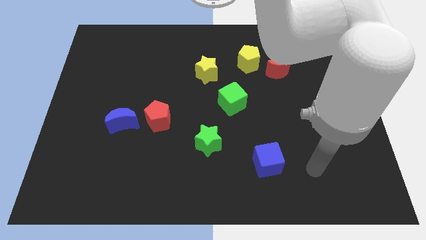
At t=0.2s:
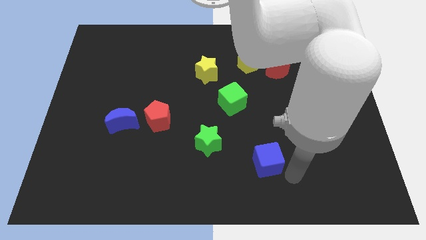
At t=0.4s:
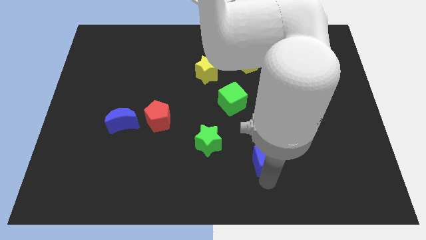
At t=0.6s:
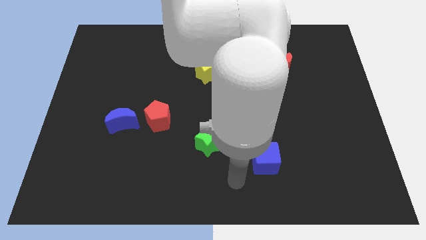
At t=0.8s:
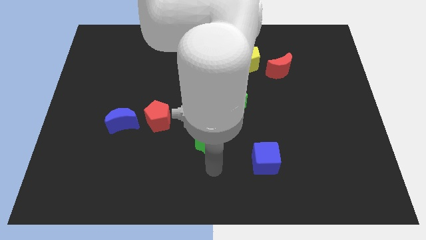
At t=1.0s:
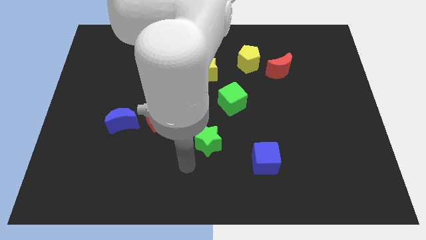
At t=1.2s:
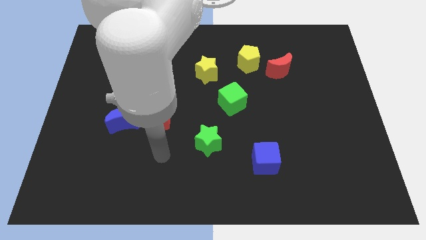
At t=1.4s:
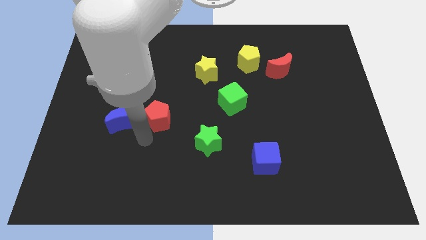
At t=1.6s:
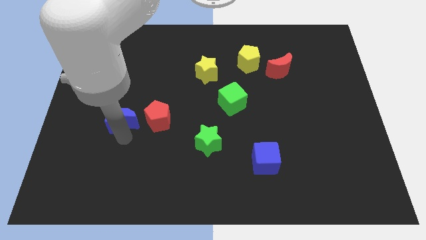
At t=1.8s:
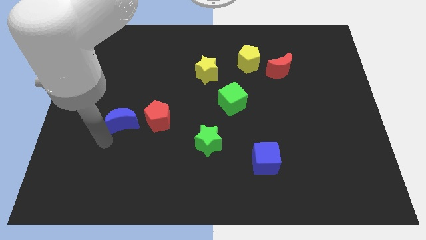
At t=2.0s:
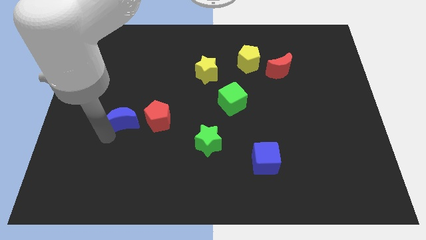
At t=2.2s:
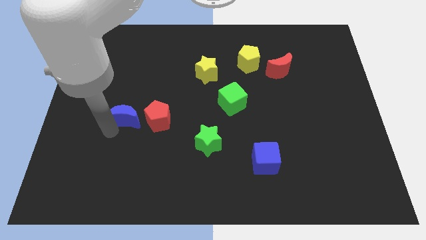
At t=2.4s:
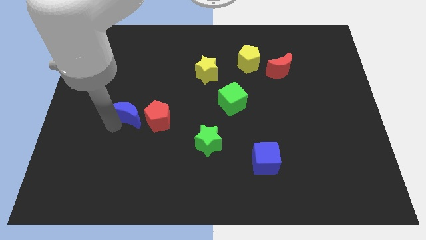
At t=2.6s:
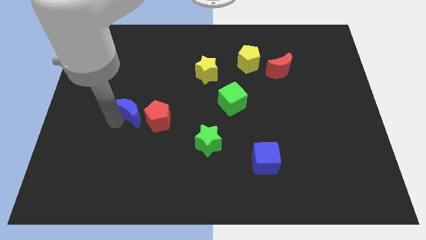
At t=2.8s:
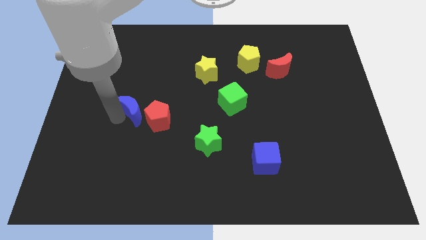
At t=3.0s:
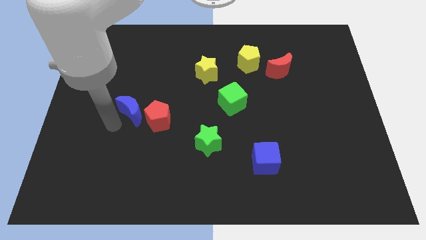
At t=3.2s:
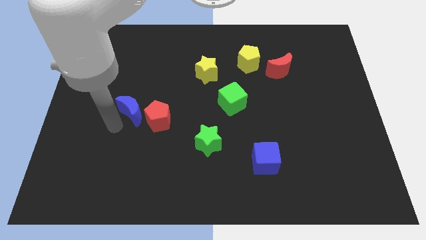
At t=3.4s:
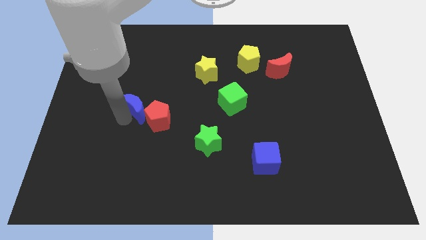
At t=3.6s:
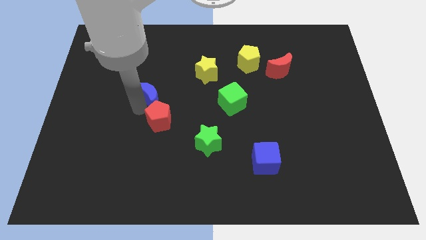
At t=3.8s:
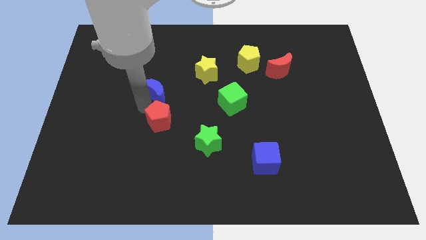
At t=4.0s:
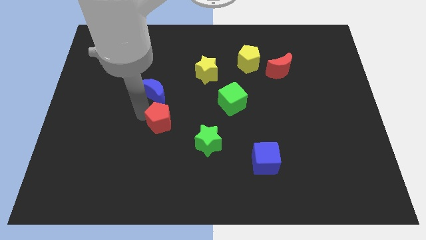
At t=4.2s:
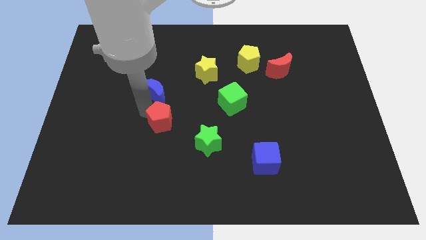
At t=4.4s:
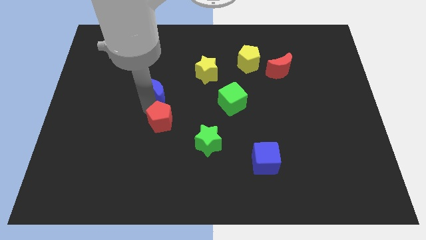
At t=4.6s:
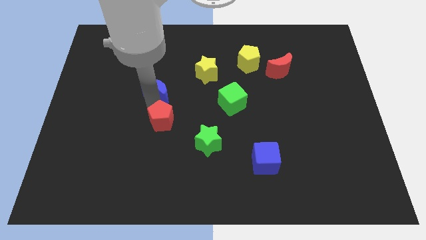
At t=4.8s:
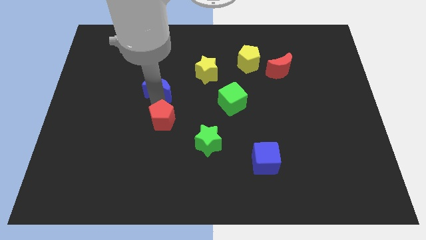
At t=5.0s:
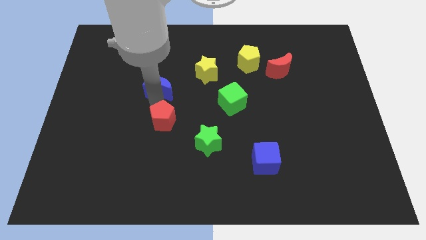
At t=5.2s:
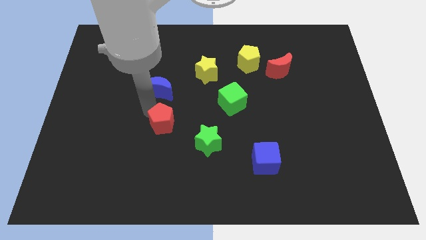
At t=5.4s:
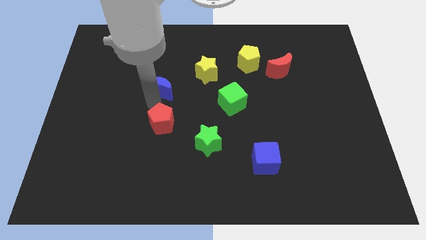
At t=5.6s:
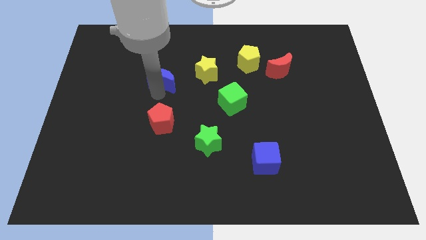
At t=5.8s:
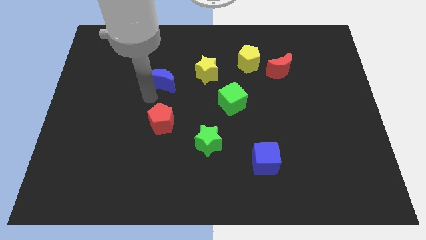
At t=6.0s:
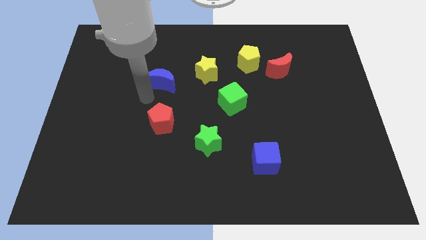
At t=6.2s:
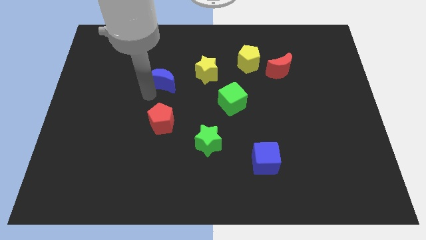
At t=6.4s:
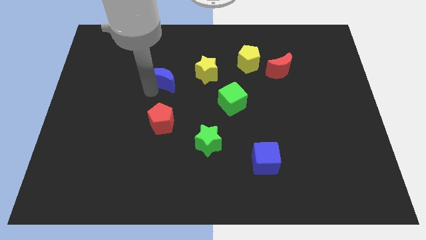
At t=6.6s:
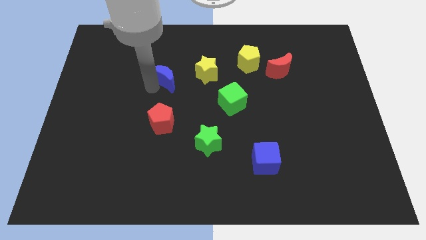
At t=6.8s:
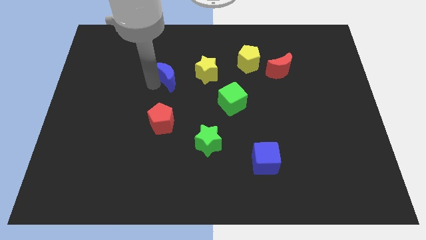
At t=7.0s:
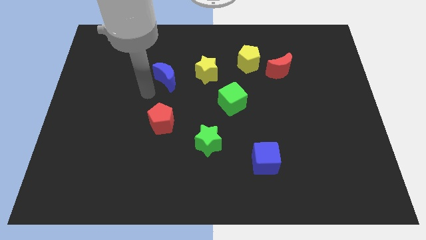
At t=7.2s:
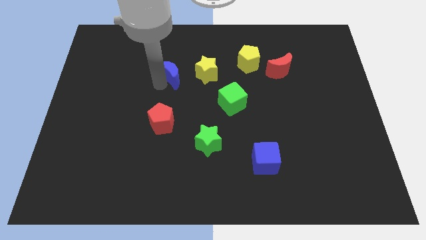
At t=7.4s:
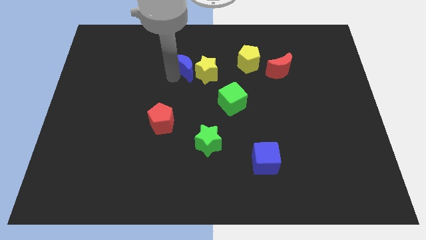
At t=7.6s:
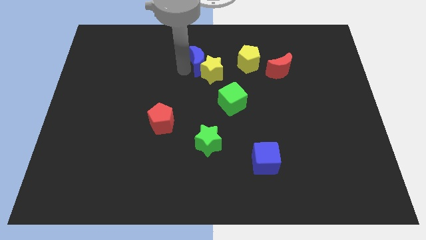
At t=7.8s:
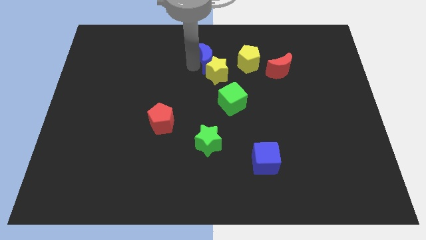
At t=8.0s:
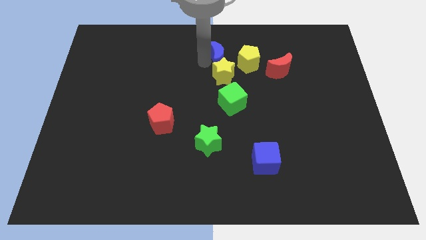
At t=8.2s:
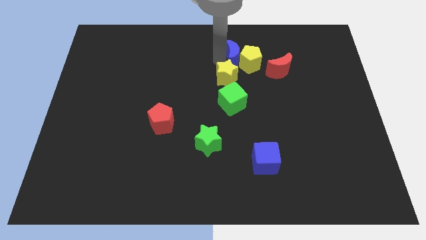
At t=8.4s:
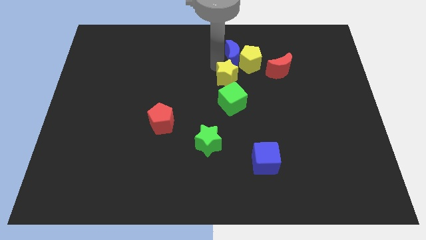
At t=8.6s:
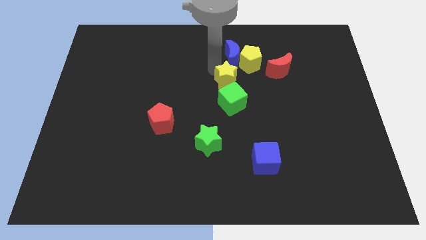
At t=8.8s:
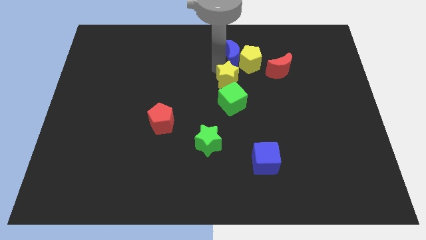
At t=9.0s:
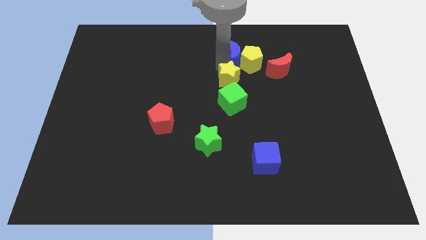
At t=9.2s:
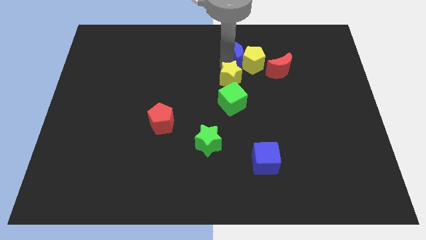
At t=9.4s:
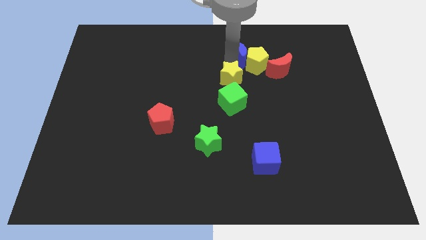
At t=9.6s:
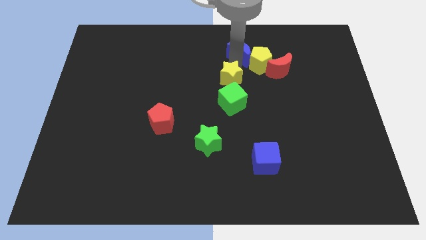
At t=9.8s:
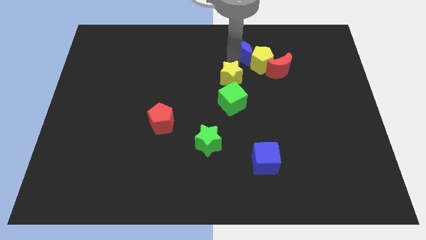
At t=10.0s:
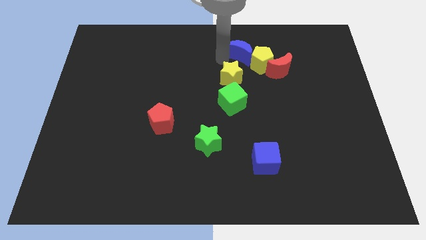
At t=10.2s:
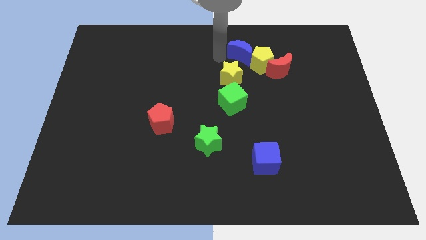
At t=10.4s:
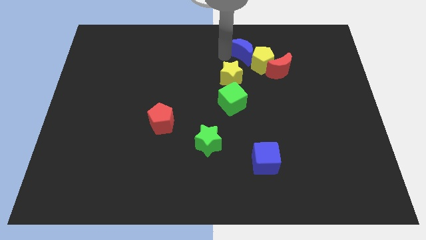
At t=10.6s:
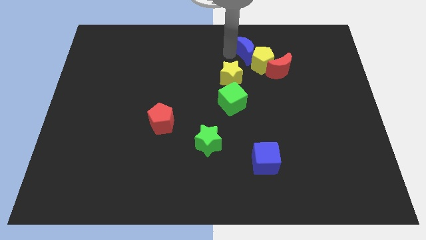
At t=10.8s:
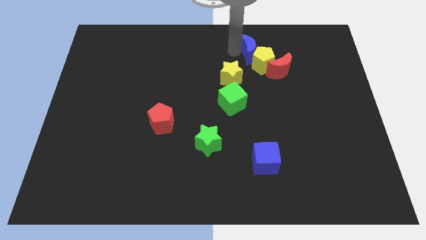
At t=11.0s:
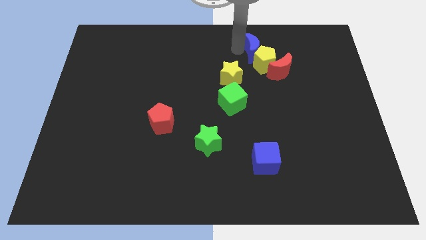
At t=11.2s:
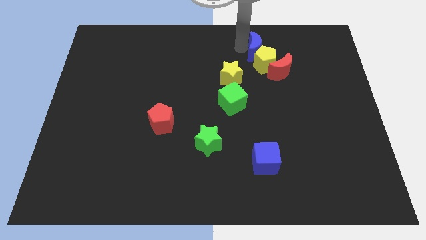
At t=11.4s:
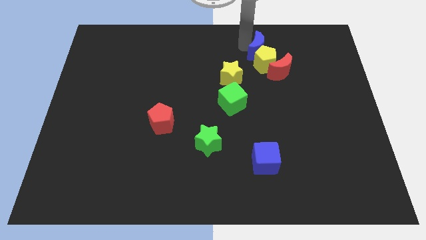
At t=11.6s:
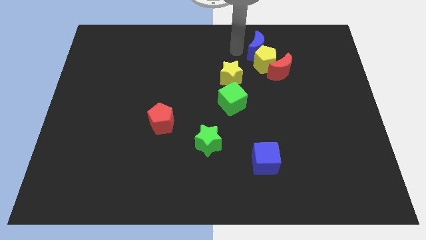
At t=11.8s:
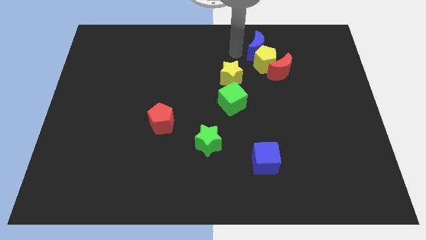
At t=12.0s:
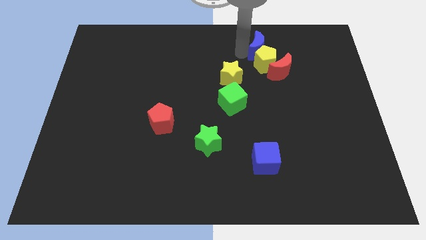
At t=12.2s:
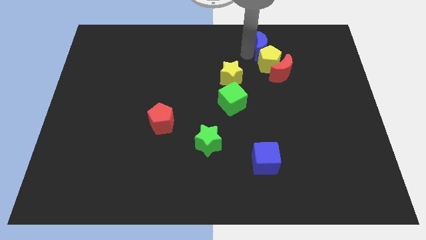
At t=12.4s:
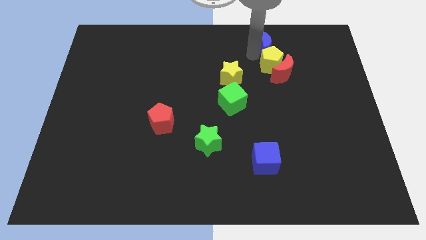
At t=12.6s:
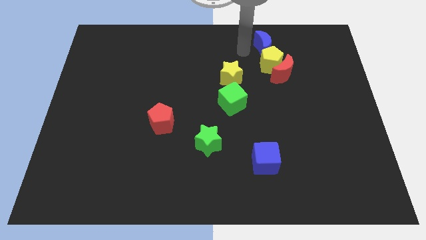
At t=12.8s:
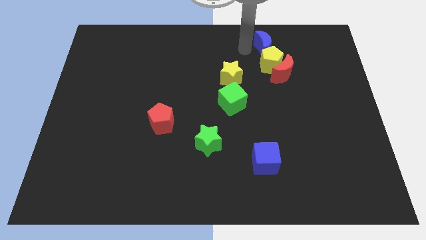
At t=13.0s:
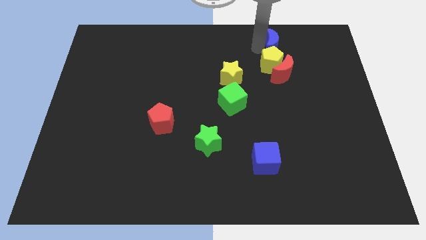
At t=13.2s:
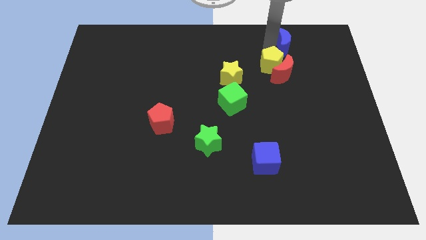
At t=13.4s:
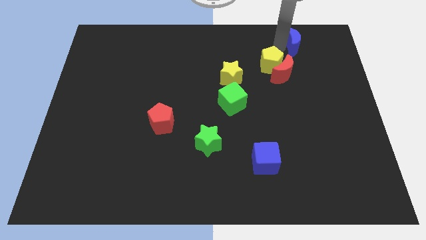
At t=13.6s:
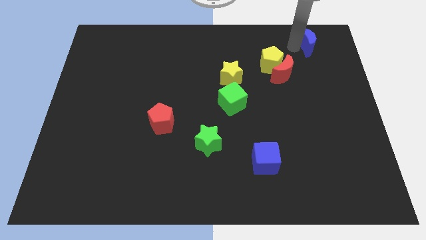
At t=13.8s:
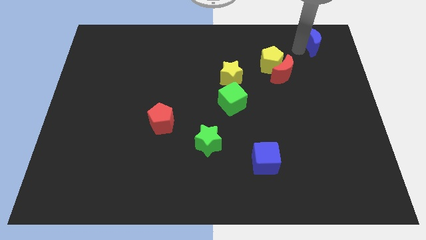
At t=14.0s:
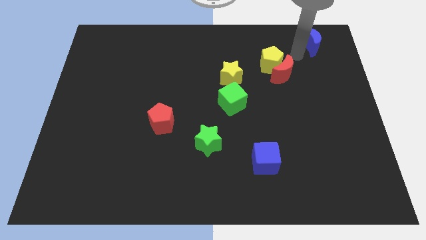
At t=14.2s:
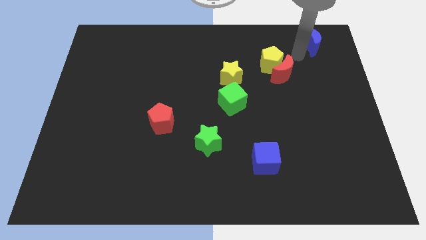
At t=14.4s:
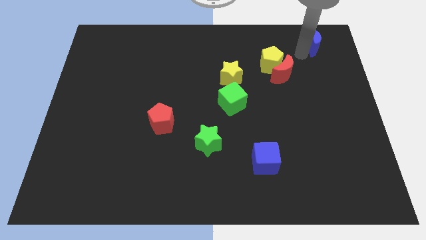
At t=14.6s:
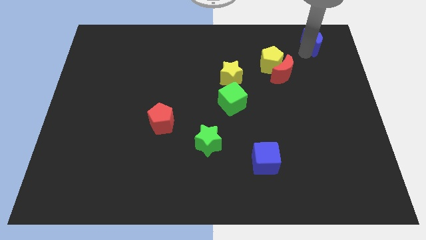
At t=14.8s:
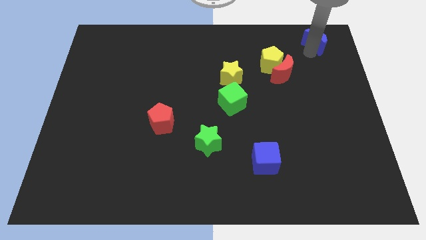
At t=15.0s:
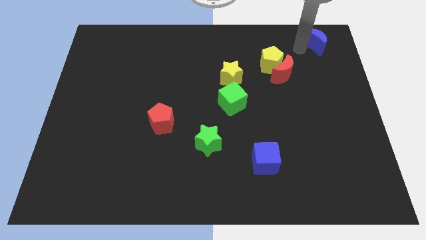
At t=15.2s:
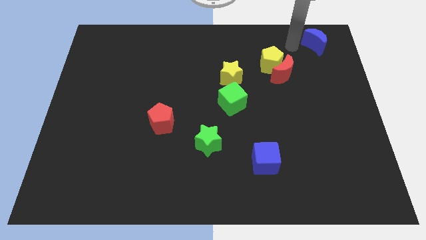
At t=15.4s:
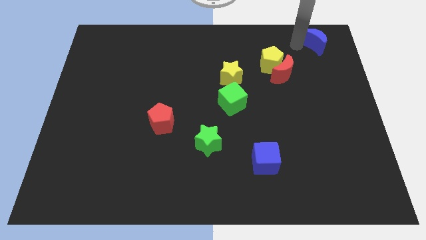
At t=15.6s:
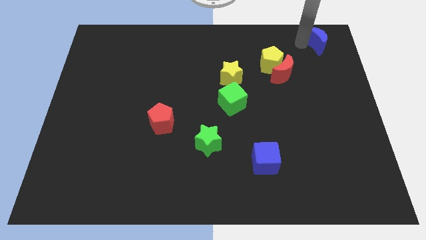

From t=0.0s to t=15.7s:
put the blue moon to the upper right corner
